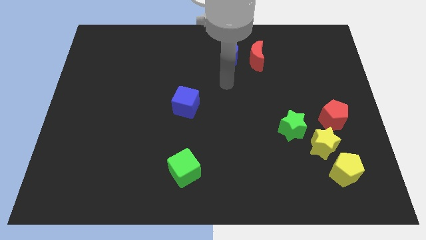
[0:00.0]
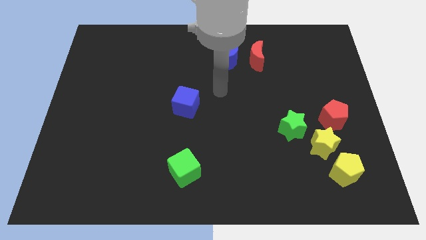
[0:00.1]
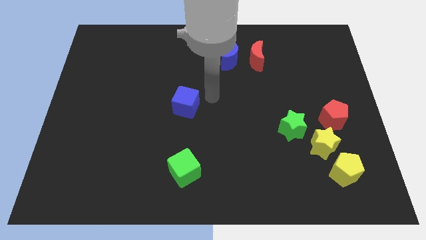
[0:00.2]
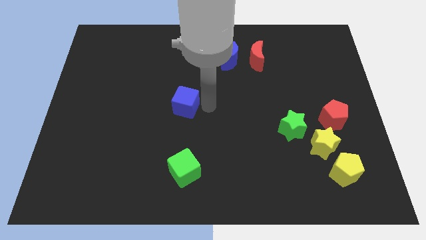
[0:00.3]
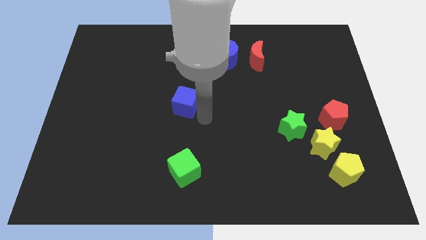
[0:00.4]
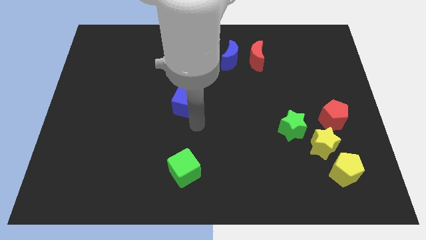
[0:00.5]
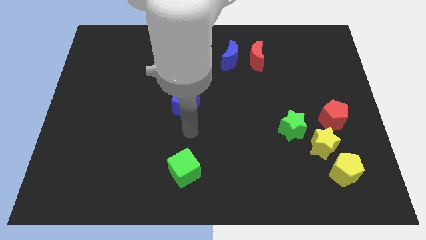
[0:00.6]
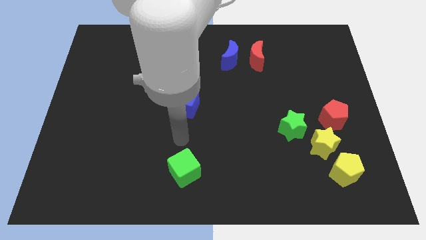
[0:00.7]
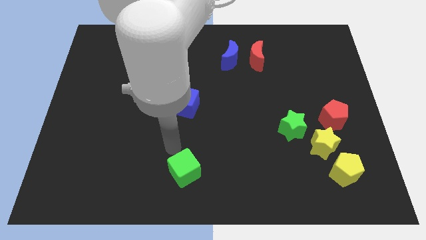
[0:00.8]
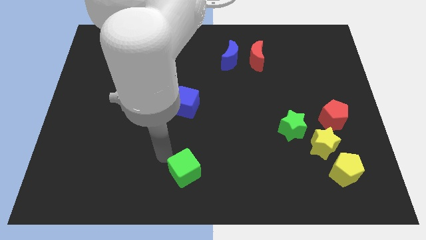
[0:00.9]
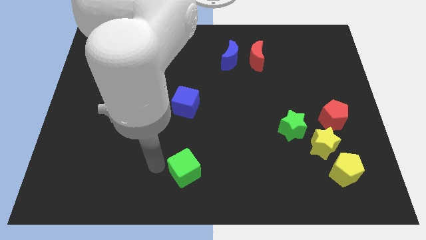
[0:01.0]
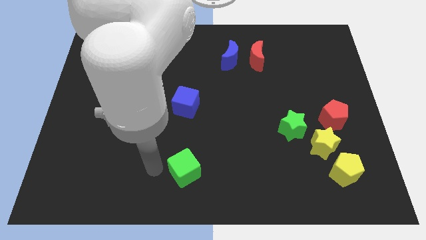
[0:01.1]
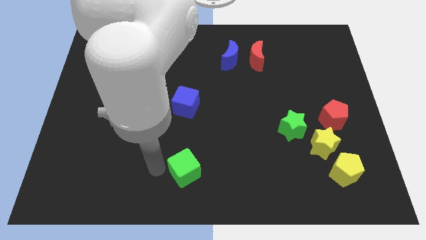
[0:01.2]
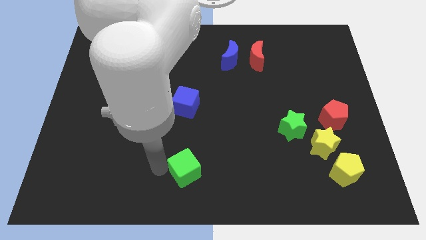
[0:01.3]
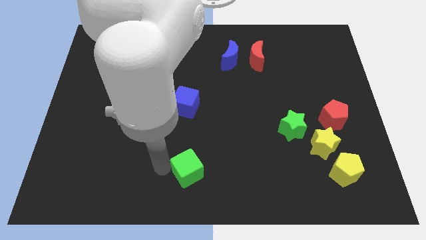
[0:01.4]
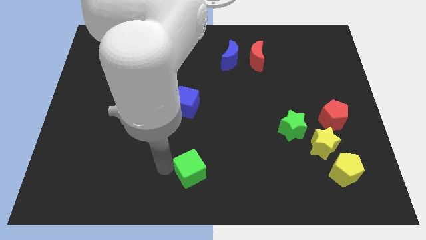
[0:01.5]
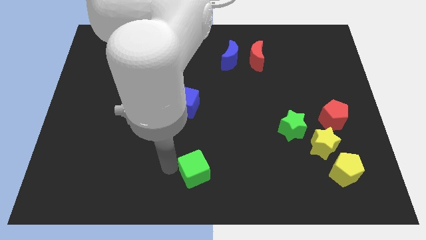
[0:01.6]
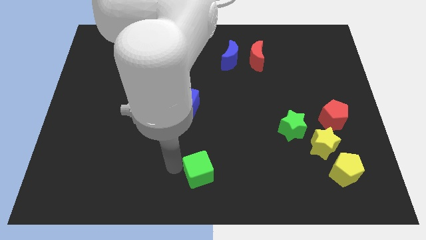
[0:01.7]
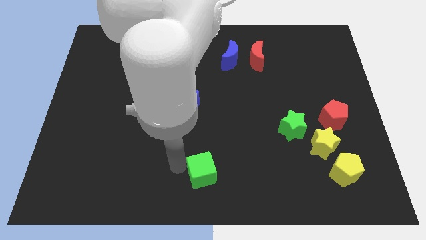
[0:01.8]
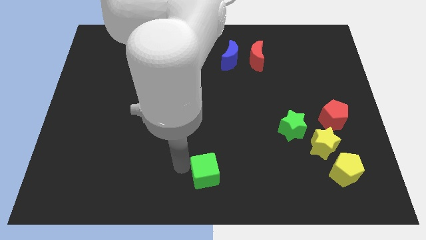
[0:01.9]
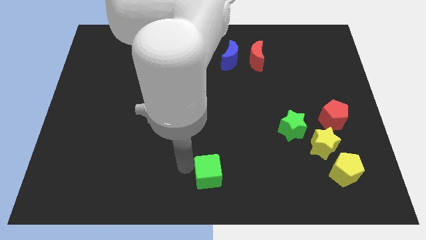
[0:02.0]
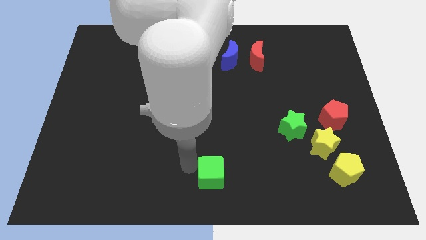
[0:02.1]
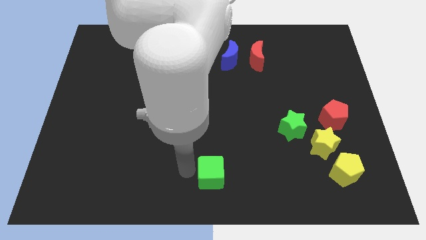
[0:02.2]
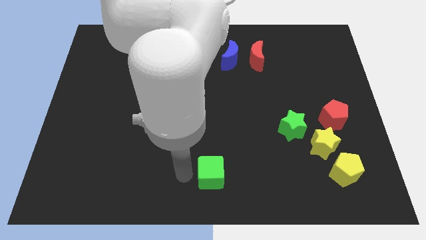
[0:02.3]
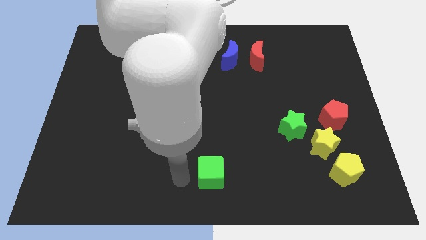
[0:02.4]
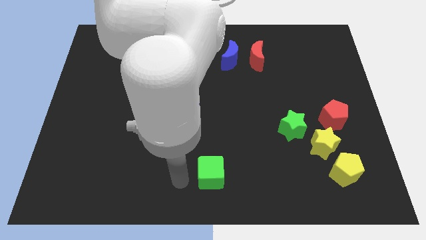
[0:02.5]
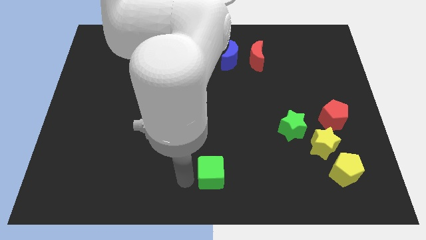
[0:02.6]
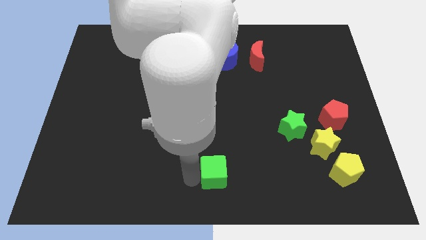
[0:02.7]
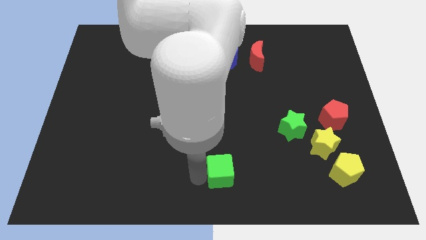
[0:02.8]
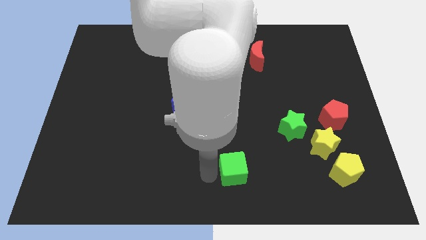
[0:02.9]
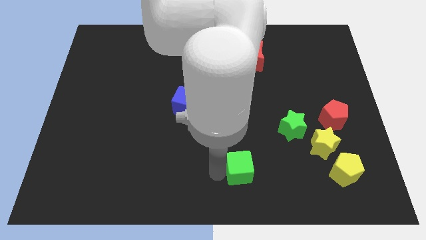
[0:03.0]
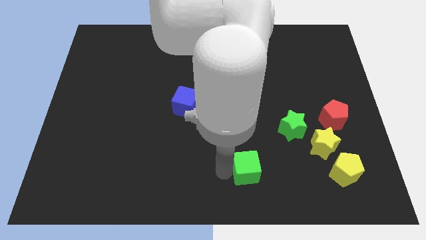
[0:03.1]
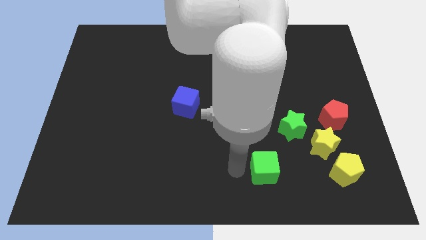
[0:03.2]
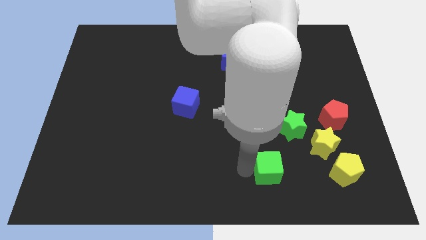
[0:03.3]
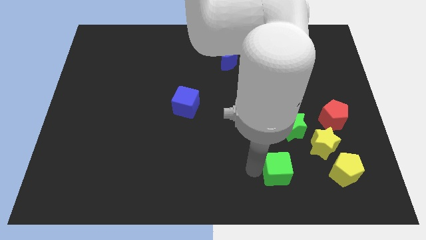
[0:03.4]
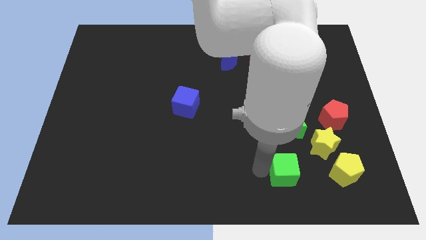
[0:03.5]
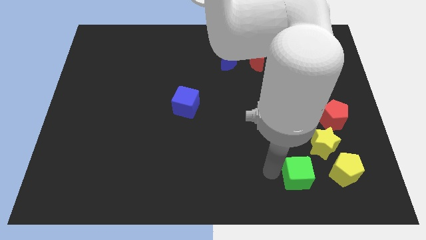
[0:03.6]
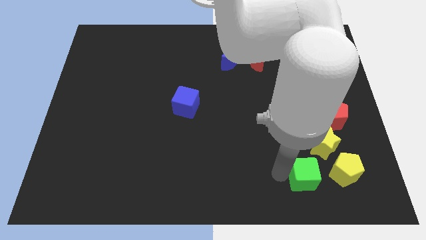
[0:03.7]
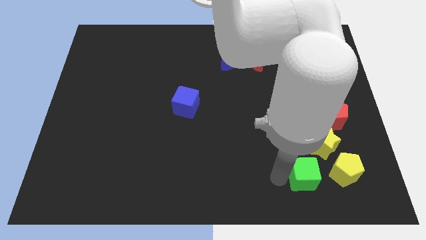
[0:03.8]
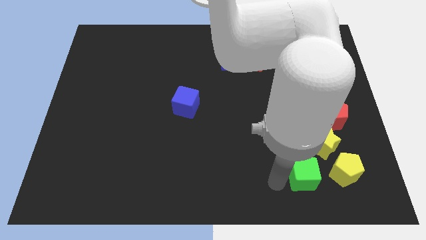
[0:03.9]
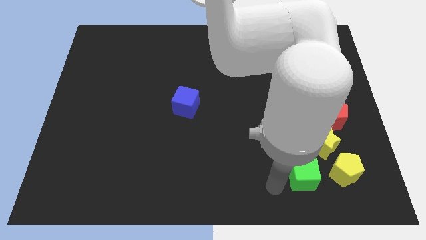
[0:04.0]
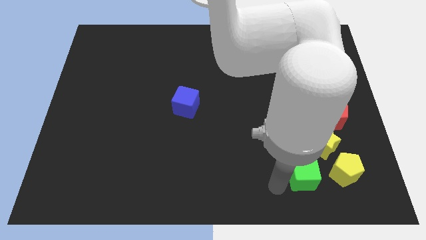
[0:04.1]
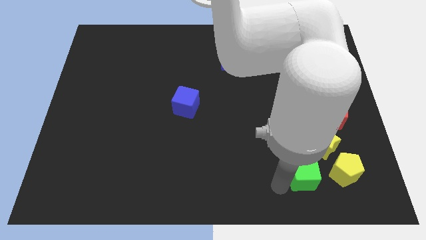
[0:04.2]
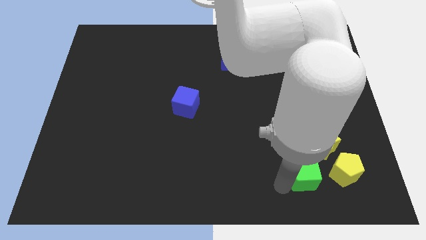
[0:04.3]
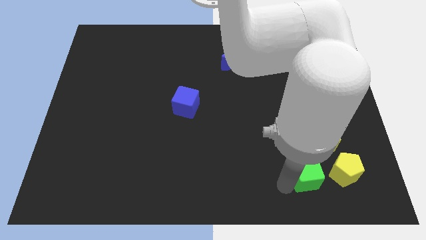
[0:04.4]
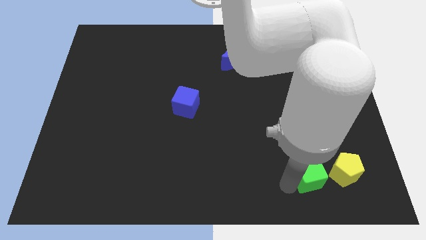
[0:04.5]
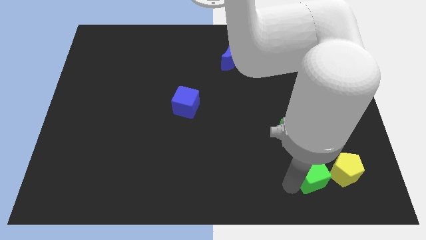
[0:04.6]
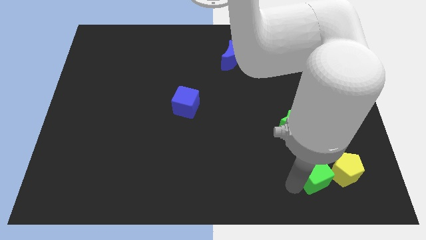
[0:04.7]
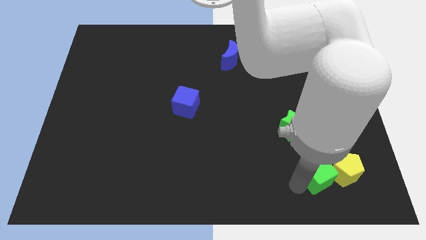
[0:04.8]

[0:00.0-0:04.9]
put the green cube next to the yellow pentagon

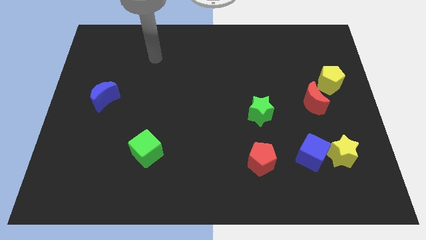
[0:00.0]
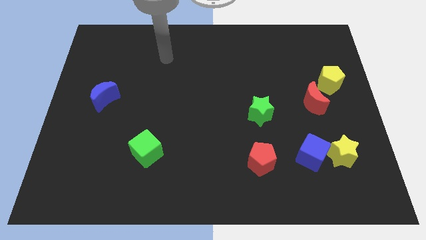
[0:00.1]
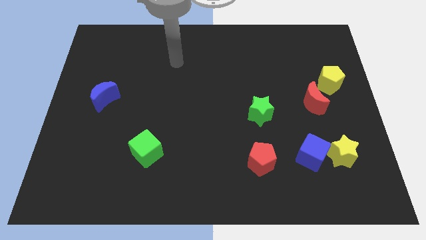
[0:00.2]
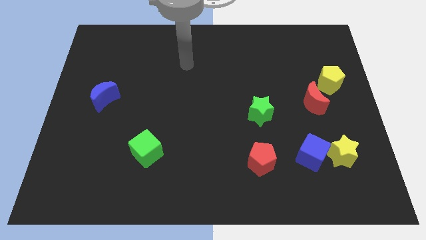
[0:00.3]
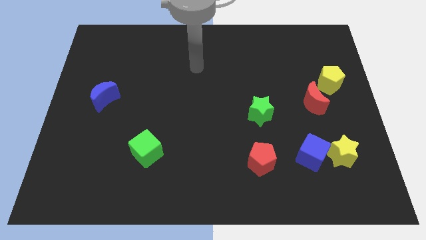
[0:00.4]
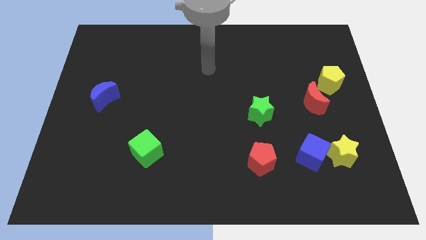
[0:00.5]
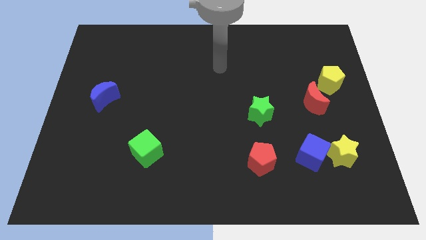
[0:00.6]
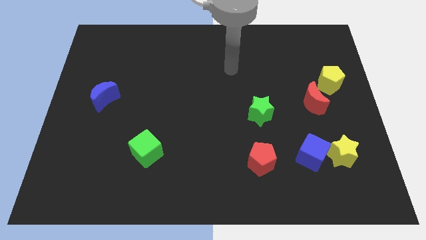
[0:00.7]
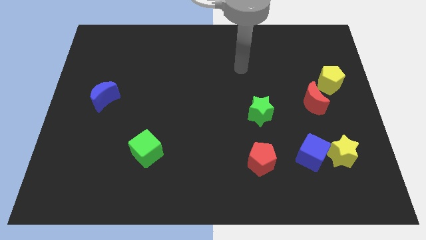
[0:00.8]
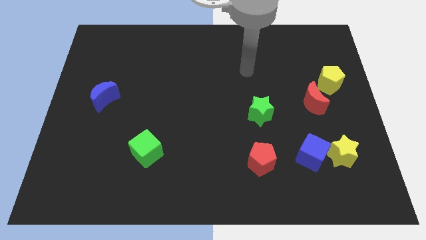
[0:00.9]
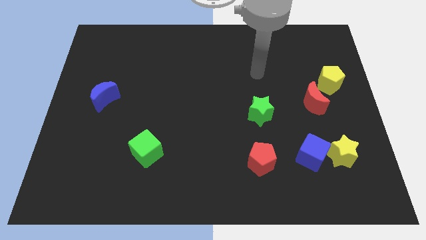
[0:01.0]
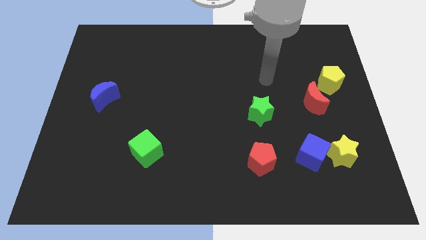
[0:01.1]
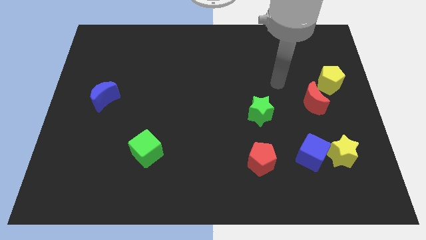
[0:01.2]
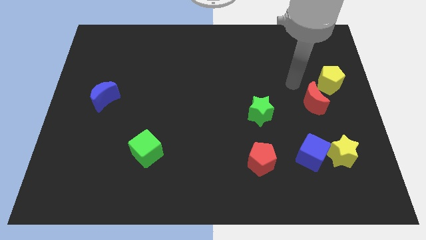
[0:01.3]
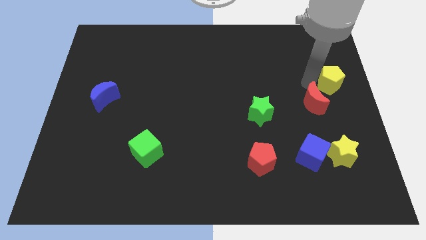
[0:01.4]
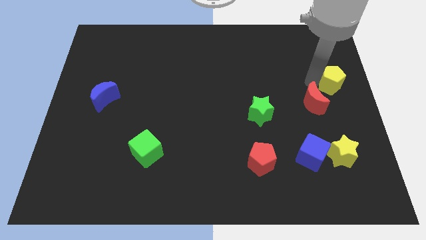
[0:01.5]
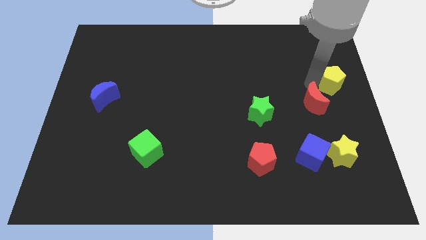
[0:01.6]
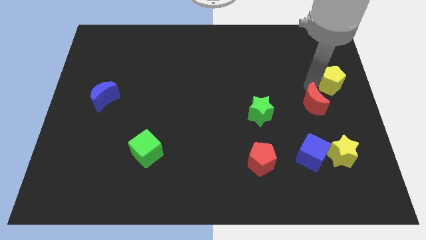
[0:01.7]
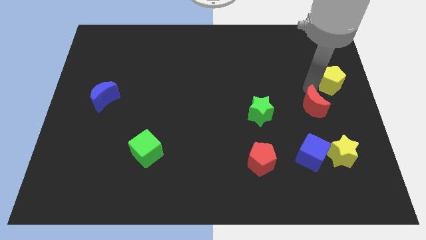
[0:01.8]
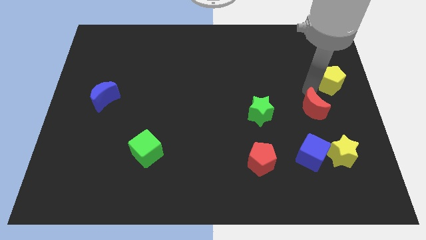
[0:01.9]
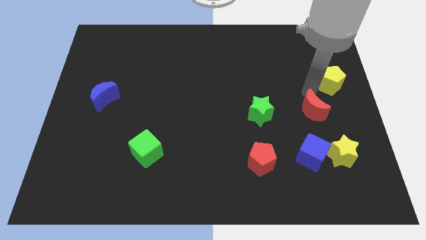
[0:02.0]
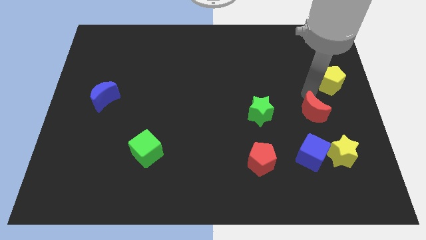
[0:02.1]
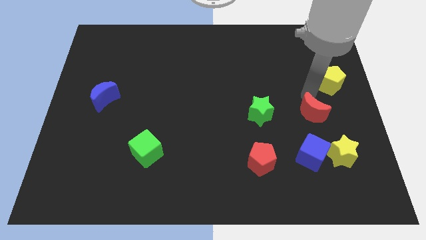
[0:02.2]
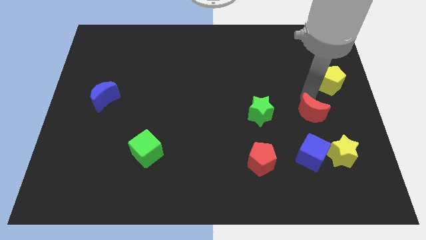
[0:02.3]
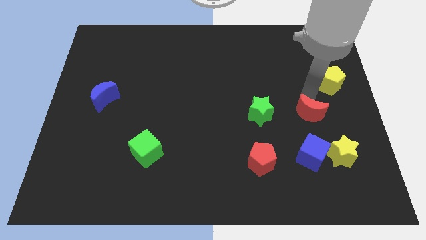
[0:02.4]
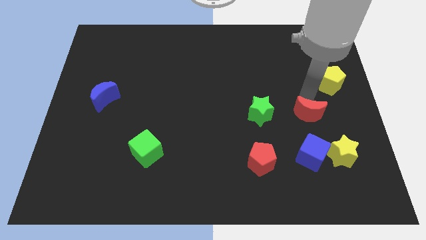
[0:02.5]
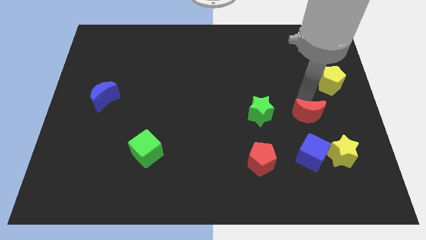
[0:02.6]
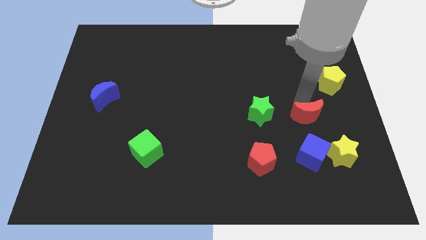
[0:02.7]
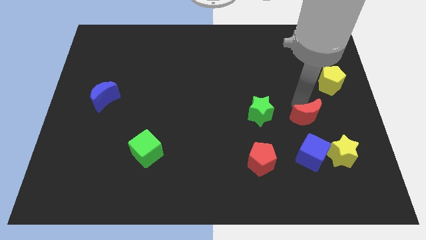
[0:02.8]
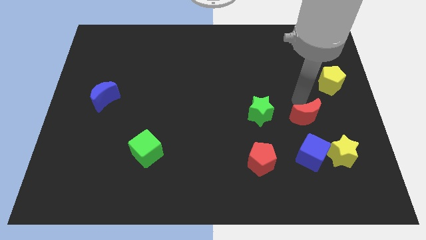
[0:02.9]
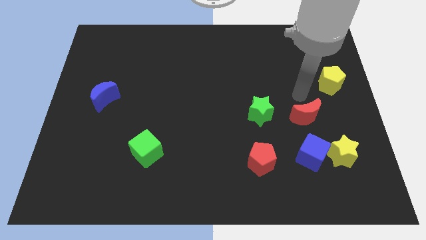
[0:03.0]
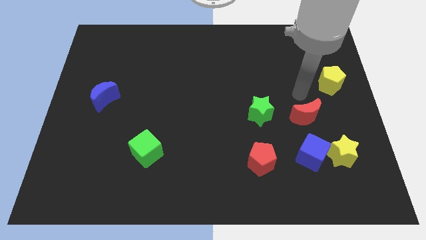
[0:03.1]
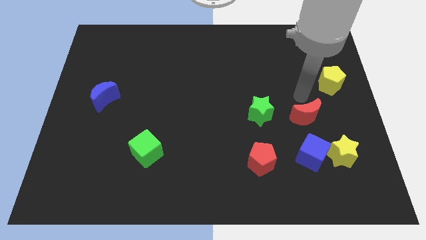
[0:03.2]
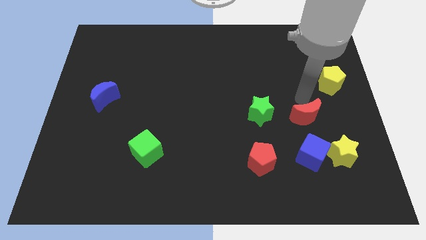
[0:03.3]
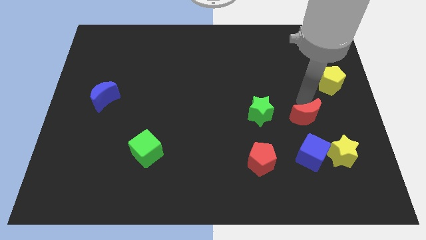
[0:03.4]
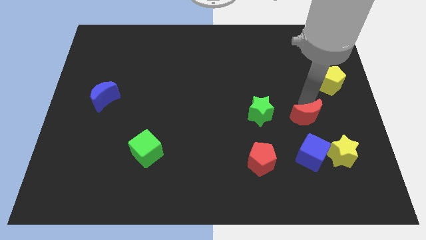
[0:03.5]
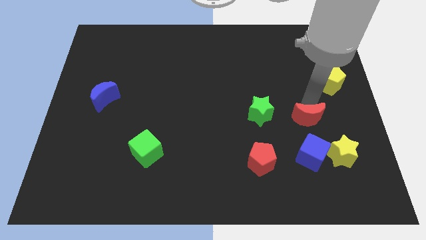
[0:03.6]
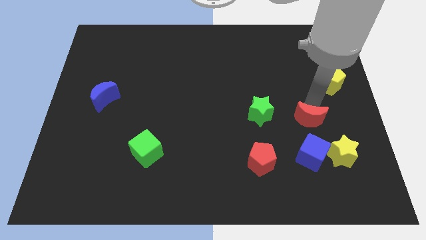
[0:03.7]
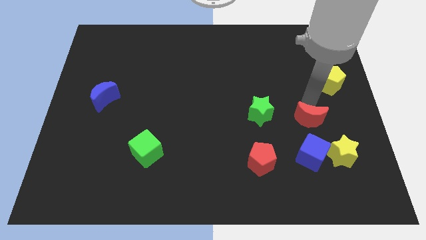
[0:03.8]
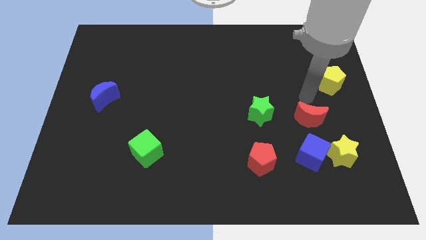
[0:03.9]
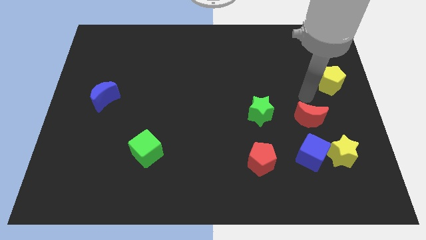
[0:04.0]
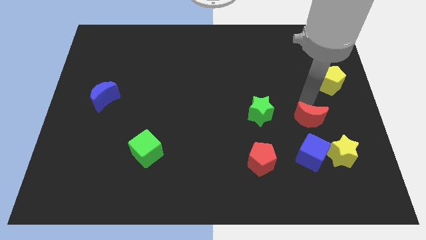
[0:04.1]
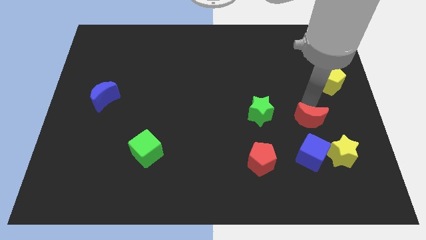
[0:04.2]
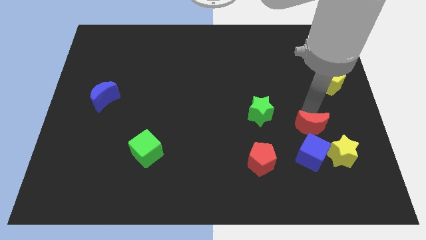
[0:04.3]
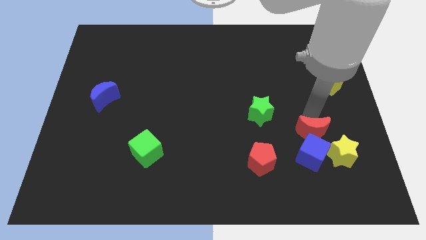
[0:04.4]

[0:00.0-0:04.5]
push the red moon to the blue cube
